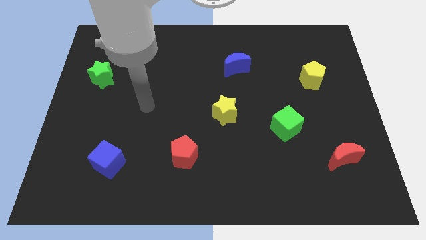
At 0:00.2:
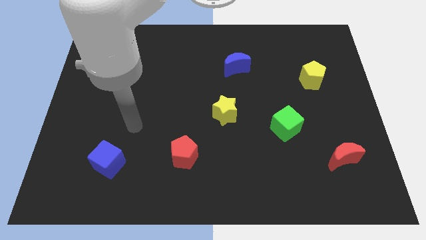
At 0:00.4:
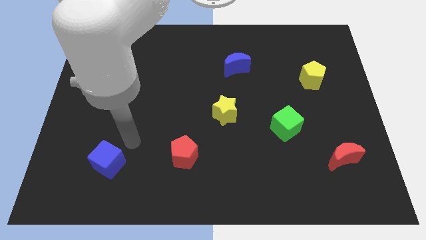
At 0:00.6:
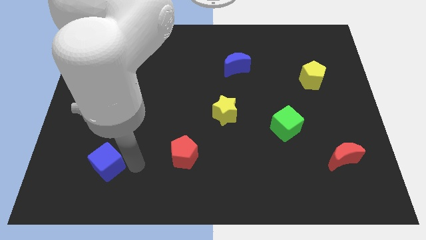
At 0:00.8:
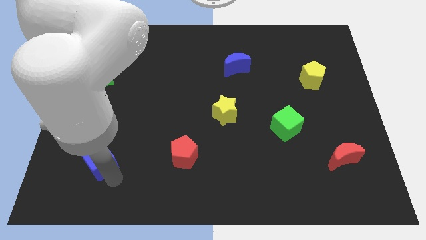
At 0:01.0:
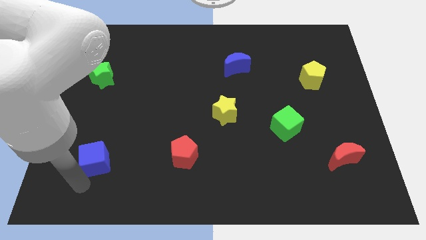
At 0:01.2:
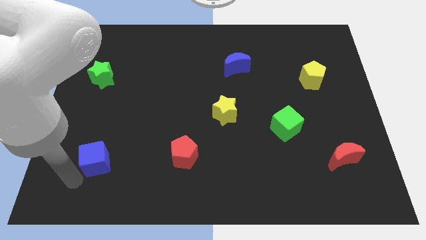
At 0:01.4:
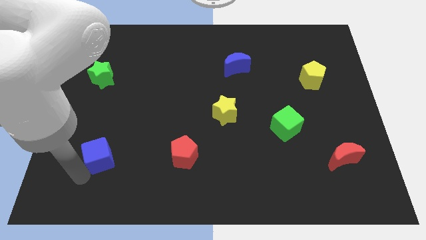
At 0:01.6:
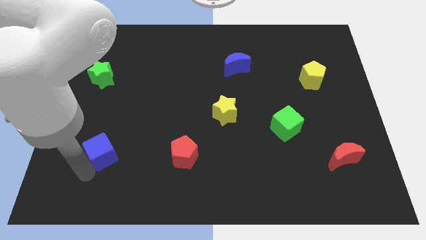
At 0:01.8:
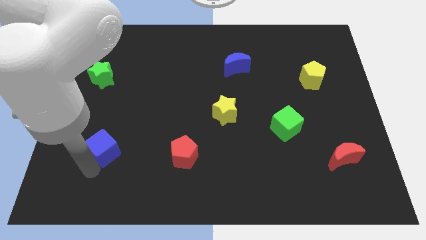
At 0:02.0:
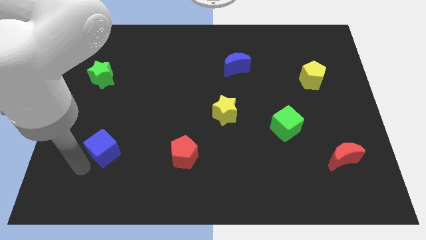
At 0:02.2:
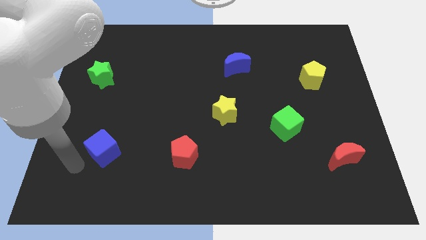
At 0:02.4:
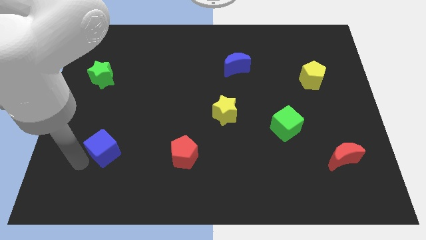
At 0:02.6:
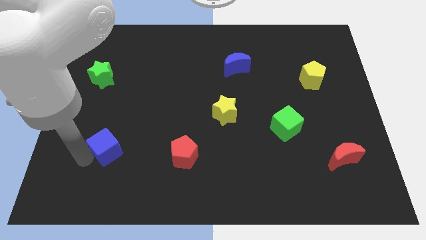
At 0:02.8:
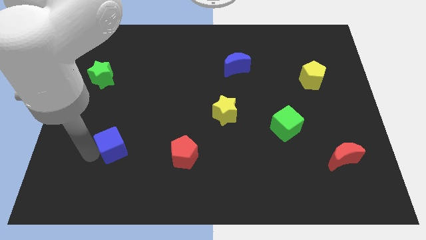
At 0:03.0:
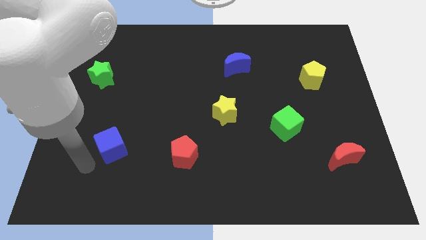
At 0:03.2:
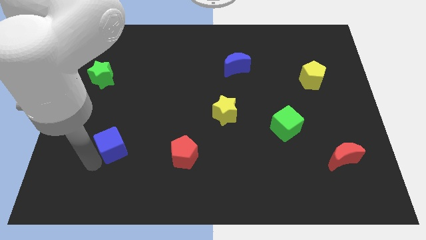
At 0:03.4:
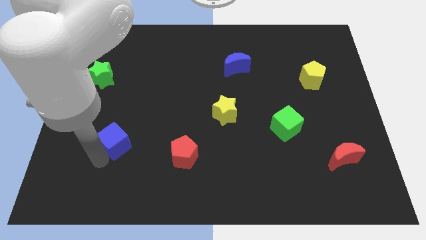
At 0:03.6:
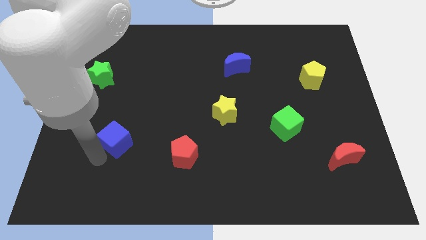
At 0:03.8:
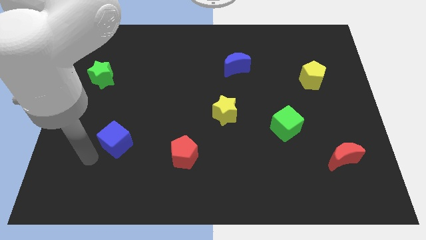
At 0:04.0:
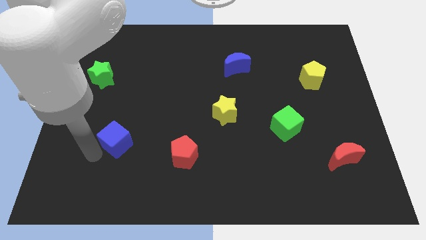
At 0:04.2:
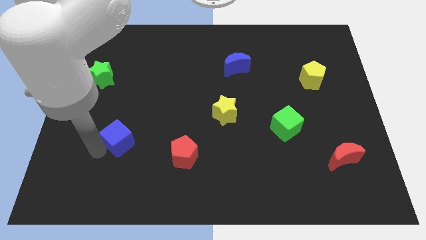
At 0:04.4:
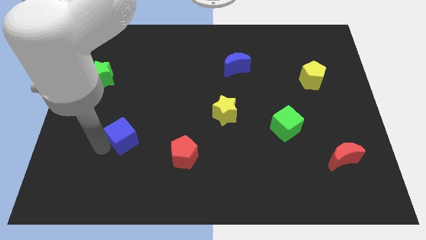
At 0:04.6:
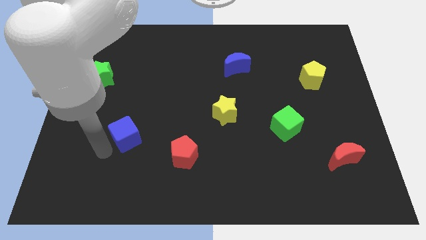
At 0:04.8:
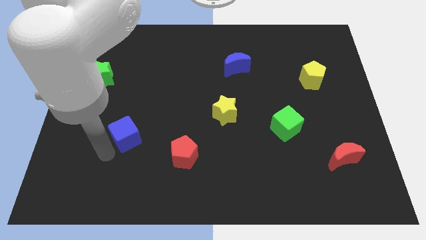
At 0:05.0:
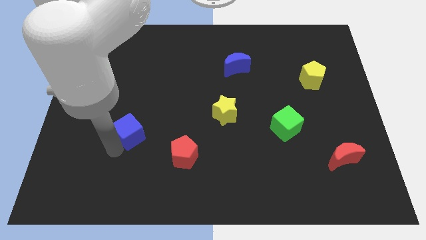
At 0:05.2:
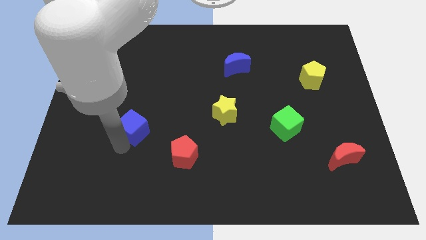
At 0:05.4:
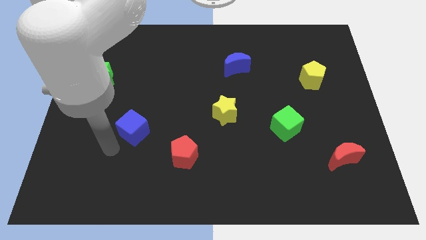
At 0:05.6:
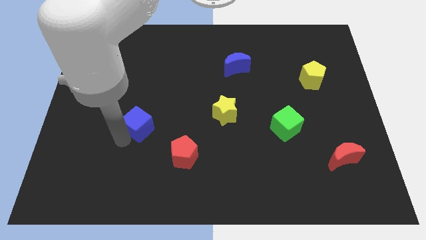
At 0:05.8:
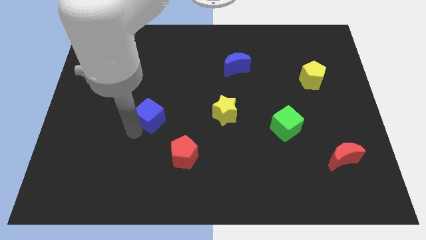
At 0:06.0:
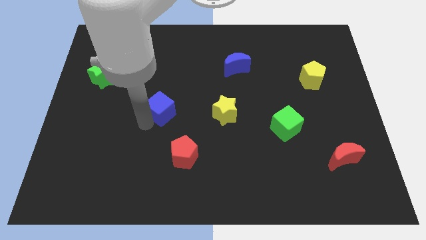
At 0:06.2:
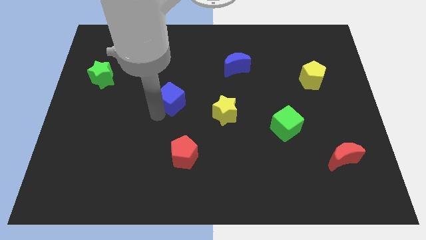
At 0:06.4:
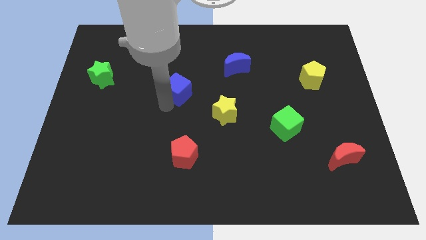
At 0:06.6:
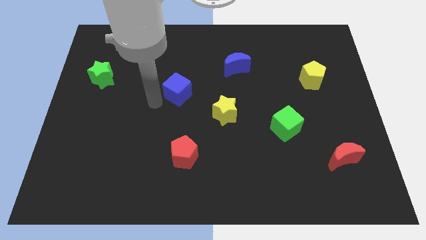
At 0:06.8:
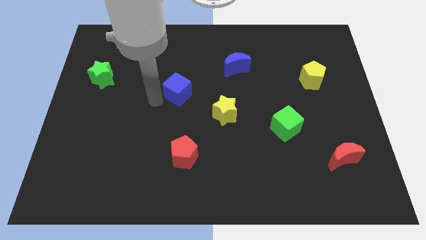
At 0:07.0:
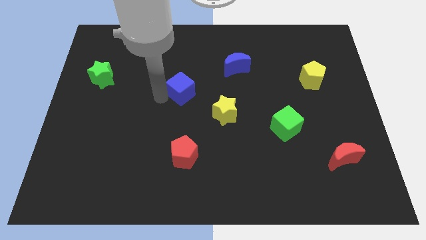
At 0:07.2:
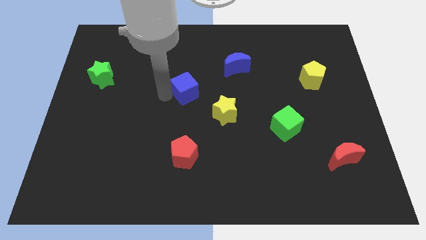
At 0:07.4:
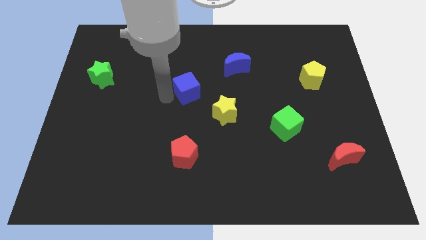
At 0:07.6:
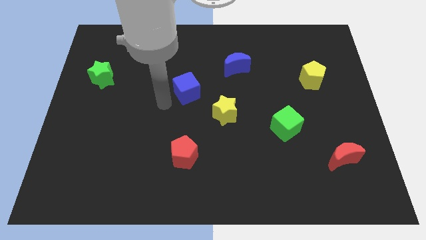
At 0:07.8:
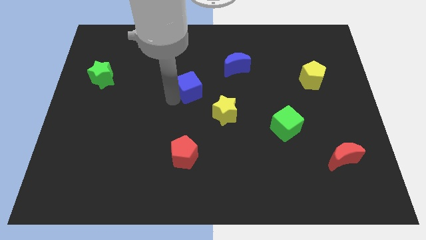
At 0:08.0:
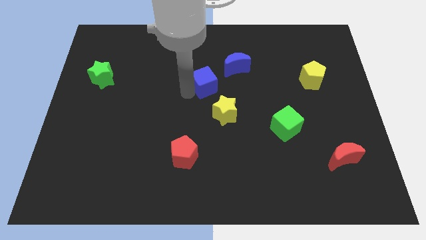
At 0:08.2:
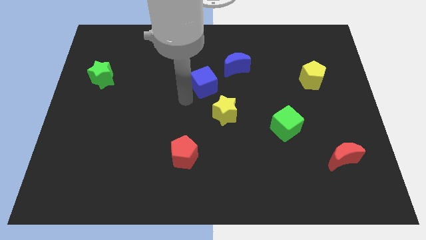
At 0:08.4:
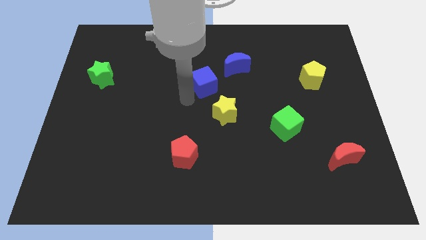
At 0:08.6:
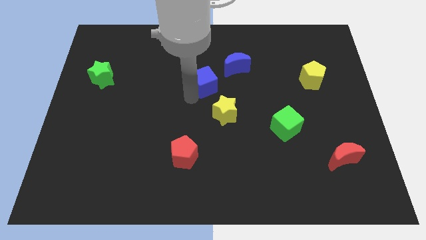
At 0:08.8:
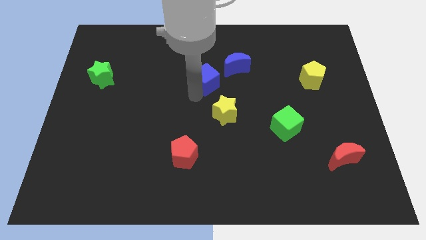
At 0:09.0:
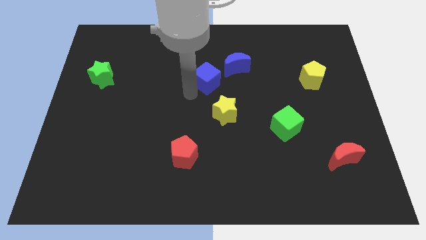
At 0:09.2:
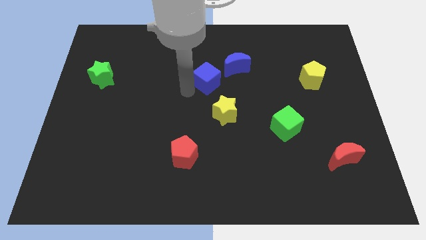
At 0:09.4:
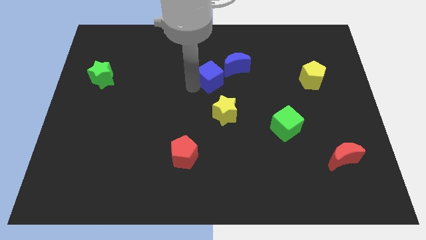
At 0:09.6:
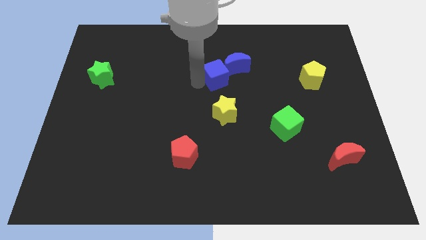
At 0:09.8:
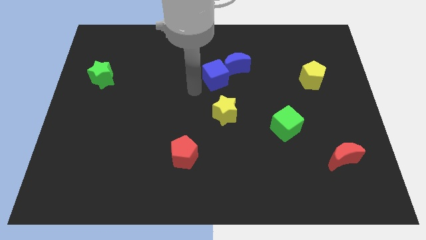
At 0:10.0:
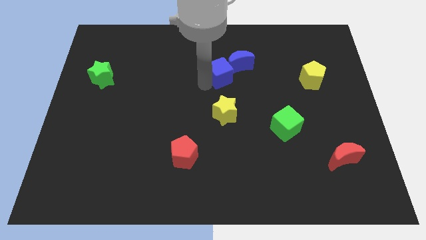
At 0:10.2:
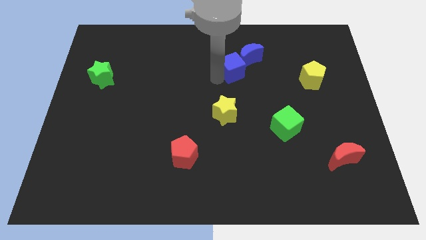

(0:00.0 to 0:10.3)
put the blue cube to the blue moon

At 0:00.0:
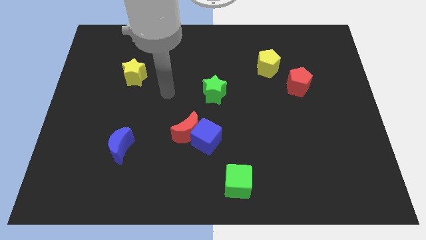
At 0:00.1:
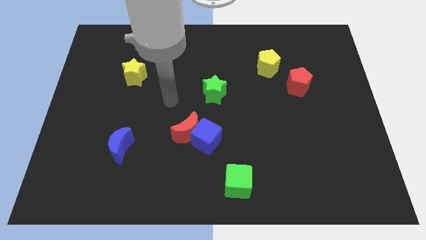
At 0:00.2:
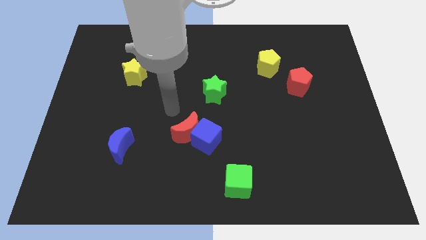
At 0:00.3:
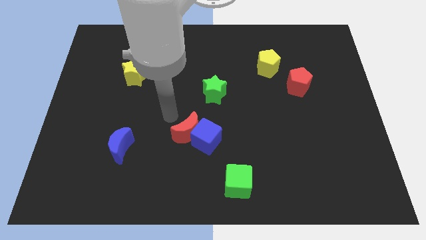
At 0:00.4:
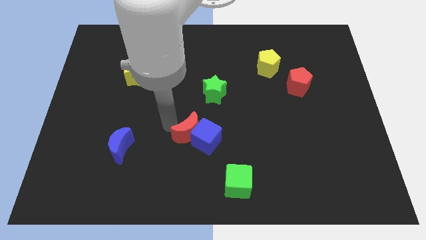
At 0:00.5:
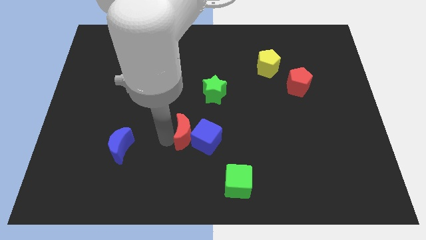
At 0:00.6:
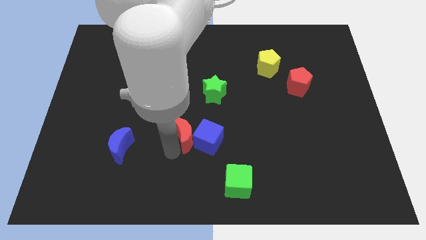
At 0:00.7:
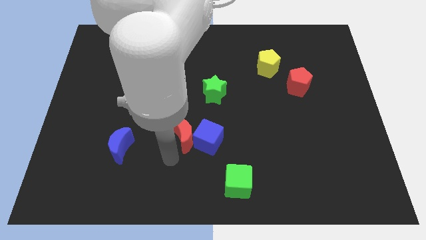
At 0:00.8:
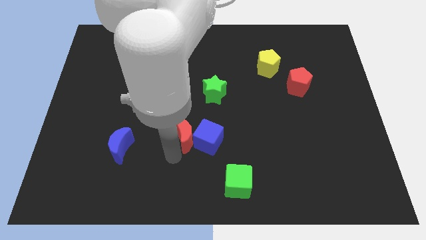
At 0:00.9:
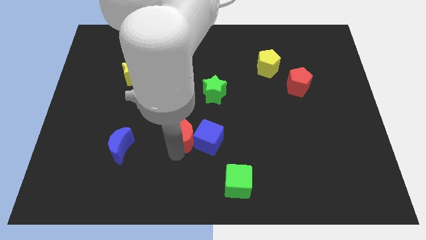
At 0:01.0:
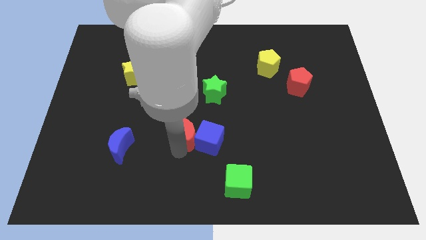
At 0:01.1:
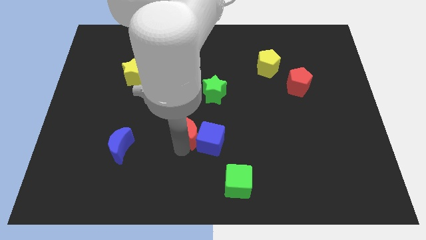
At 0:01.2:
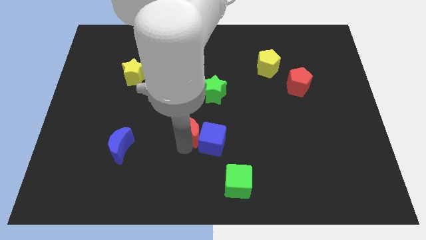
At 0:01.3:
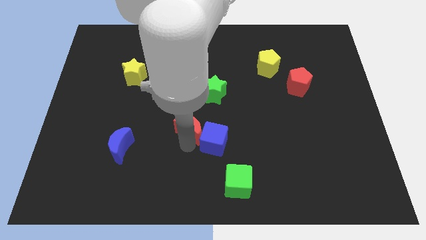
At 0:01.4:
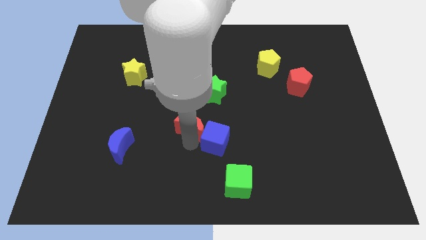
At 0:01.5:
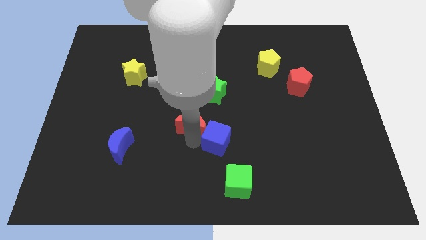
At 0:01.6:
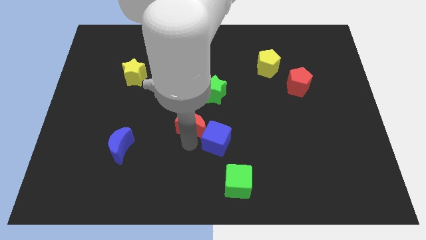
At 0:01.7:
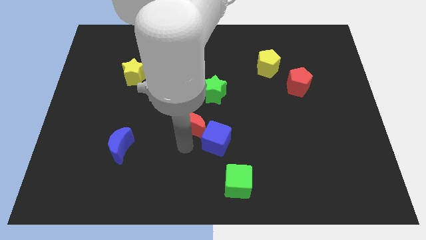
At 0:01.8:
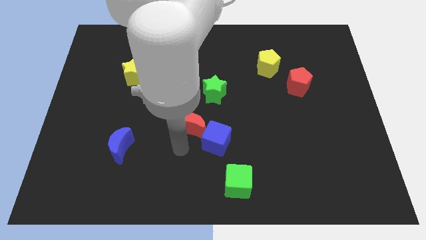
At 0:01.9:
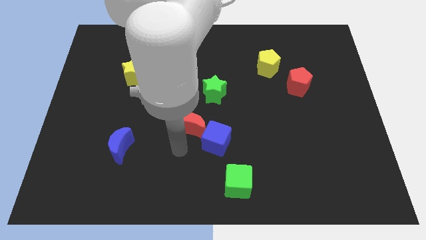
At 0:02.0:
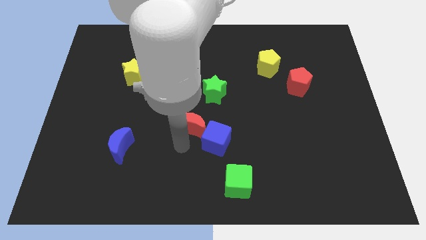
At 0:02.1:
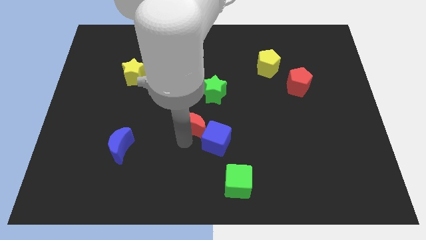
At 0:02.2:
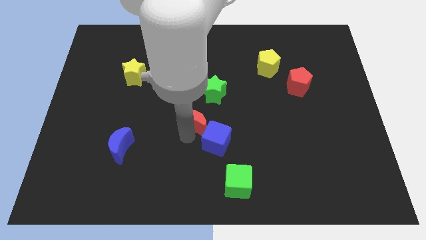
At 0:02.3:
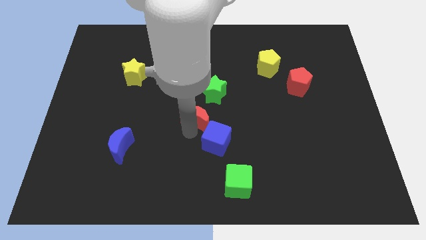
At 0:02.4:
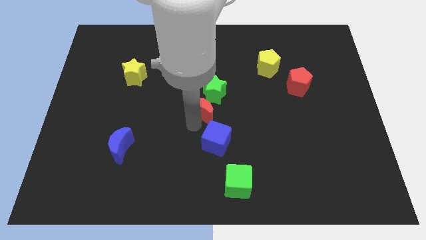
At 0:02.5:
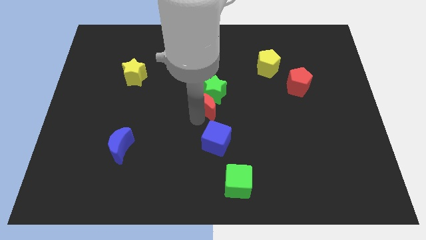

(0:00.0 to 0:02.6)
move the red moon next to the green star
